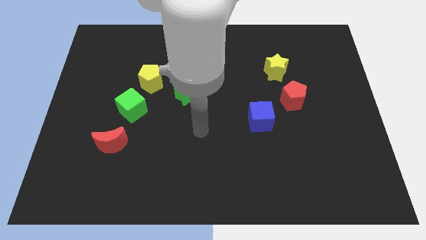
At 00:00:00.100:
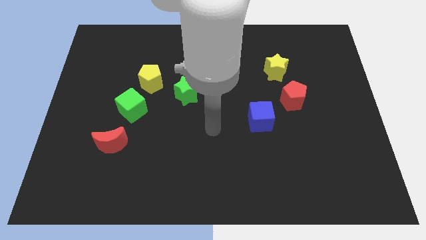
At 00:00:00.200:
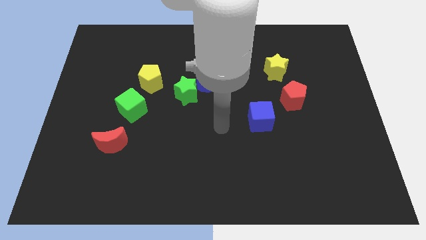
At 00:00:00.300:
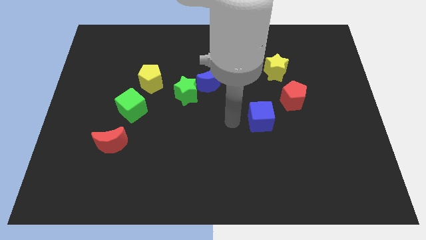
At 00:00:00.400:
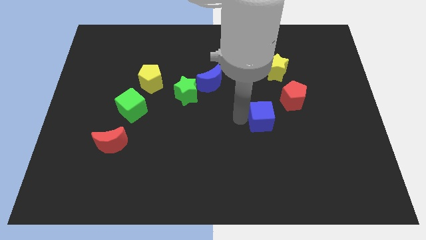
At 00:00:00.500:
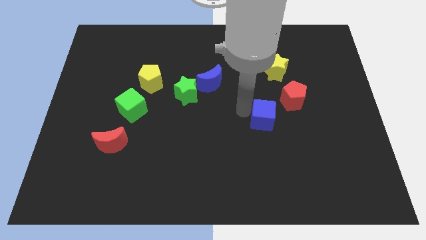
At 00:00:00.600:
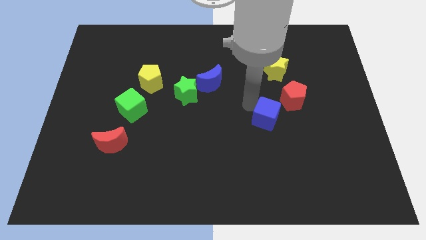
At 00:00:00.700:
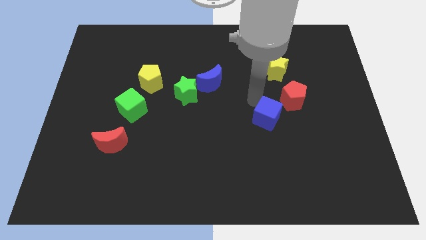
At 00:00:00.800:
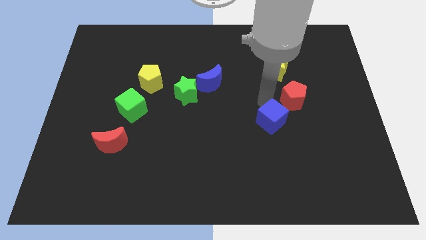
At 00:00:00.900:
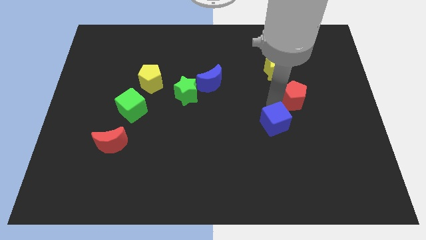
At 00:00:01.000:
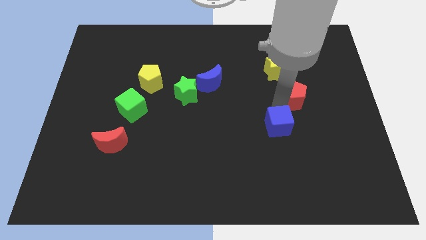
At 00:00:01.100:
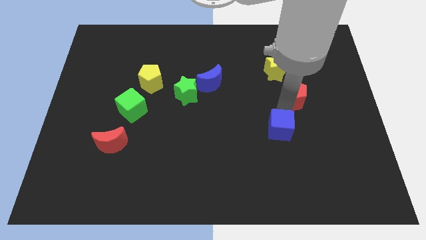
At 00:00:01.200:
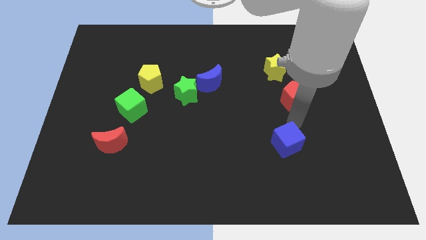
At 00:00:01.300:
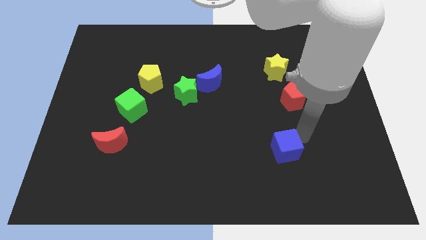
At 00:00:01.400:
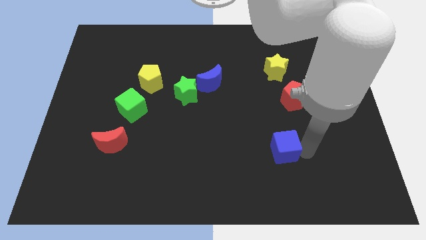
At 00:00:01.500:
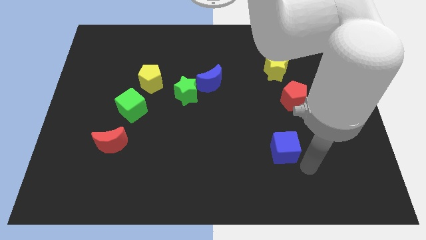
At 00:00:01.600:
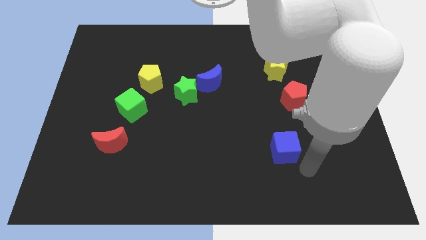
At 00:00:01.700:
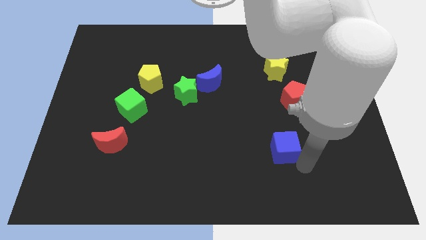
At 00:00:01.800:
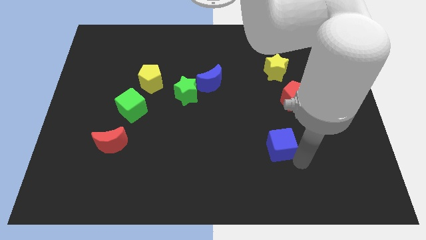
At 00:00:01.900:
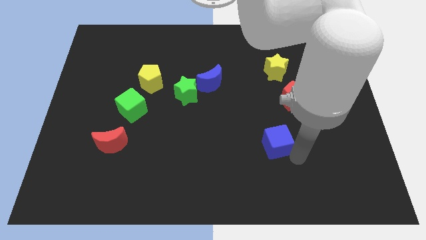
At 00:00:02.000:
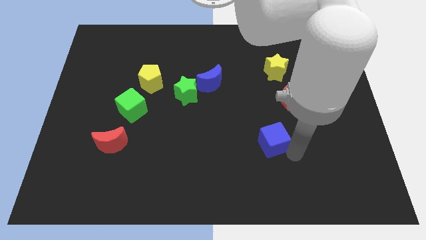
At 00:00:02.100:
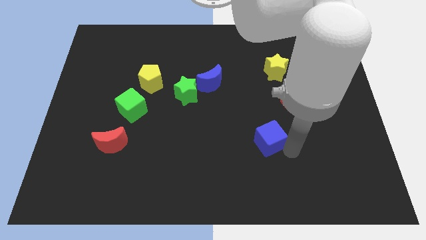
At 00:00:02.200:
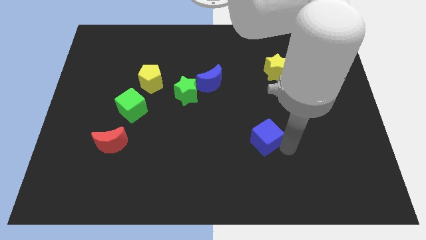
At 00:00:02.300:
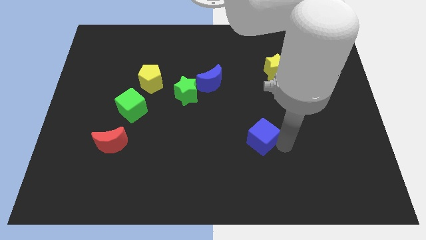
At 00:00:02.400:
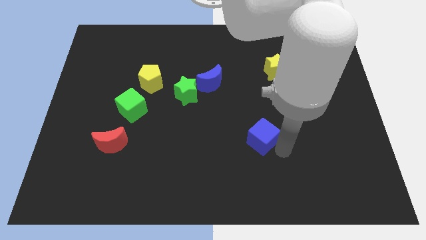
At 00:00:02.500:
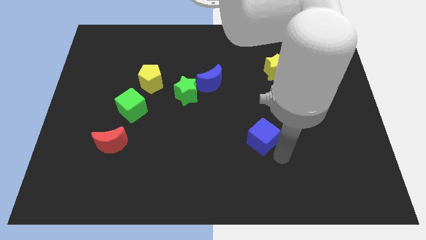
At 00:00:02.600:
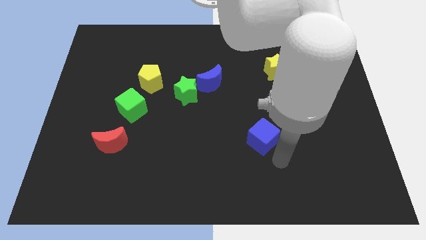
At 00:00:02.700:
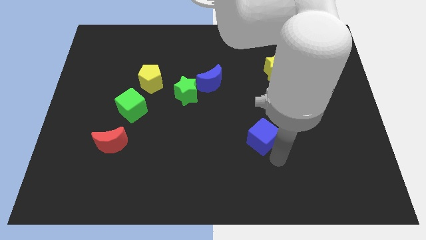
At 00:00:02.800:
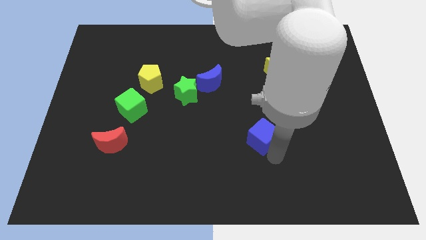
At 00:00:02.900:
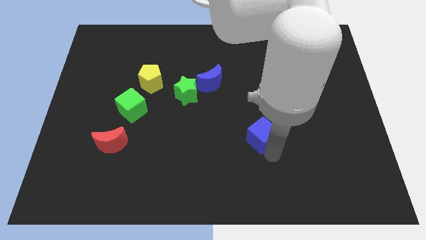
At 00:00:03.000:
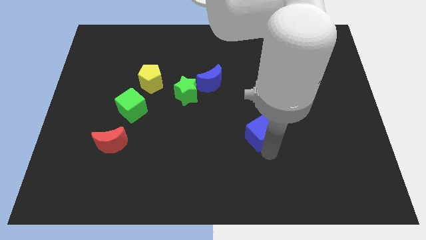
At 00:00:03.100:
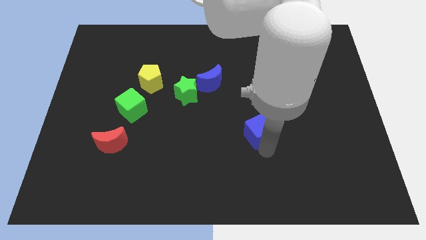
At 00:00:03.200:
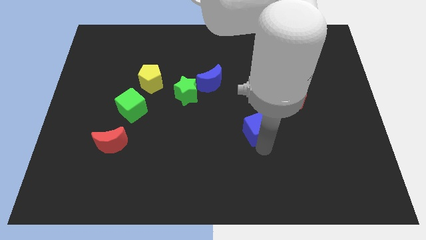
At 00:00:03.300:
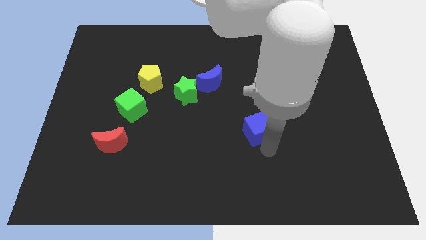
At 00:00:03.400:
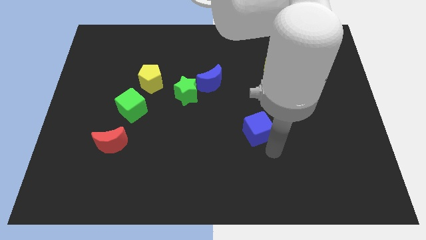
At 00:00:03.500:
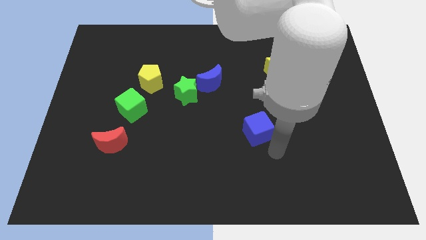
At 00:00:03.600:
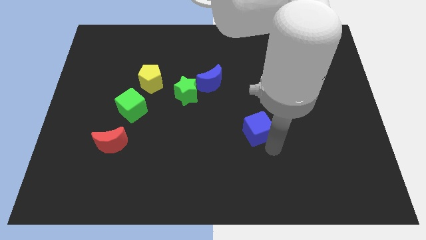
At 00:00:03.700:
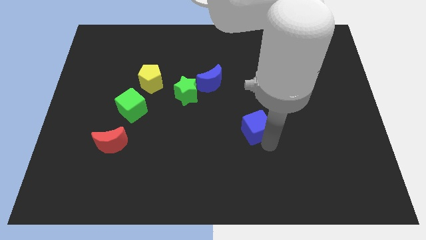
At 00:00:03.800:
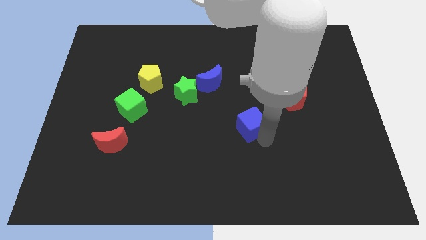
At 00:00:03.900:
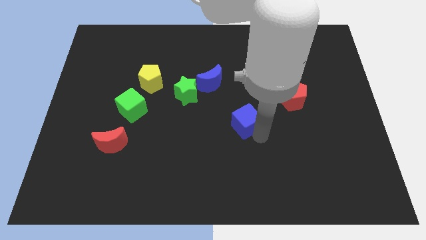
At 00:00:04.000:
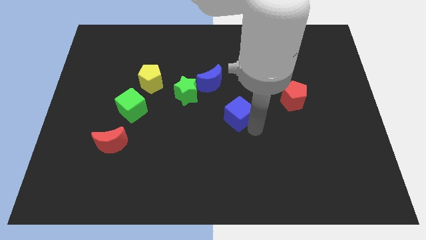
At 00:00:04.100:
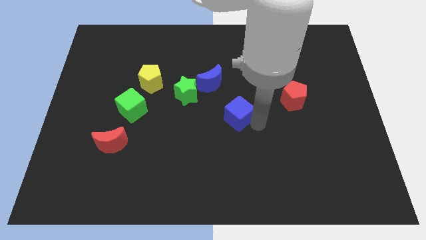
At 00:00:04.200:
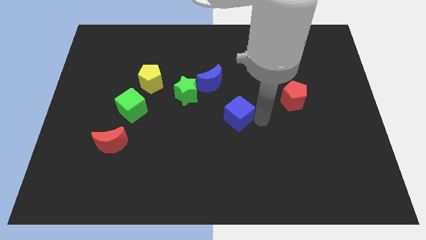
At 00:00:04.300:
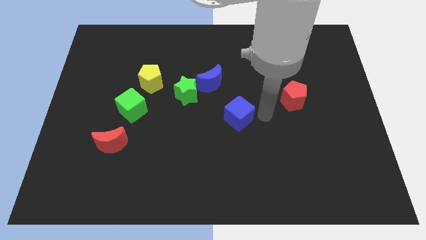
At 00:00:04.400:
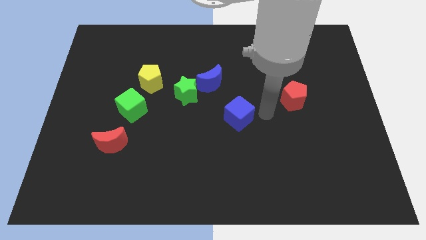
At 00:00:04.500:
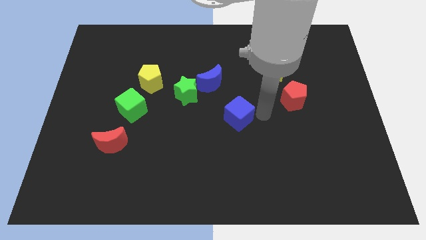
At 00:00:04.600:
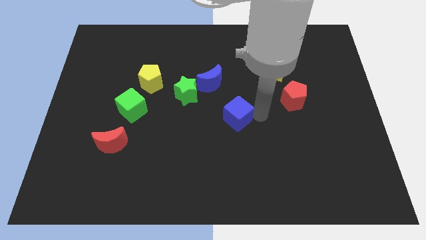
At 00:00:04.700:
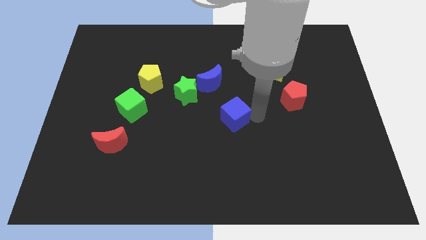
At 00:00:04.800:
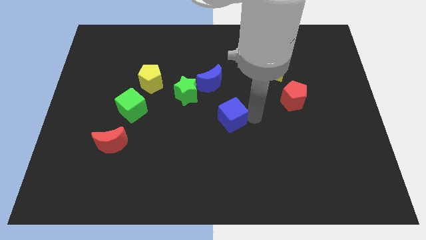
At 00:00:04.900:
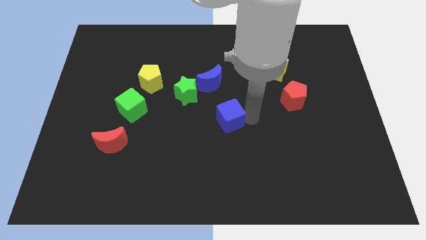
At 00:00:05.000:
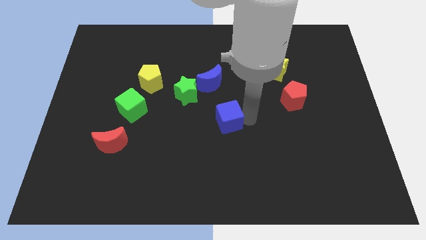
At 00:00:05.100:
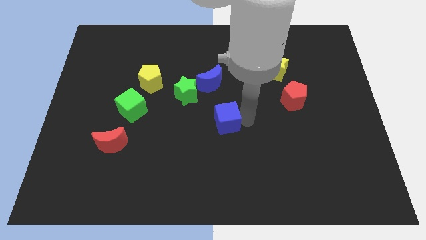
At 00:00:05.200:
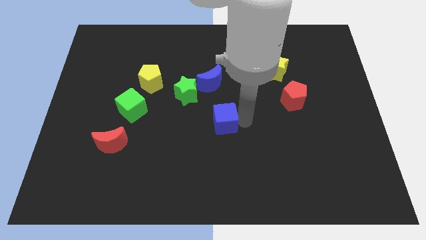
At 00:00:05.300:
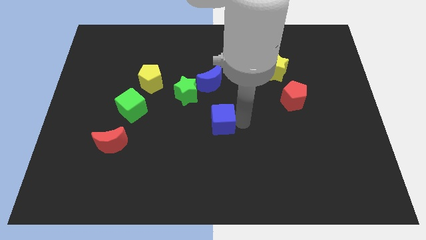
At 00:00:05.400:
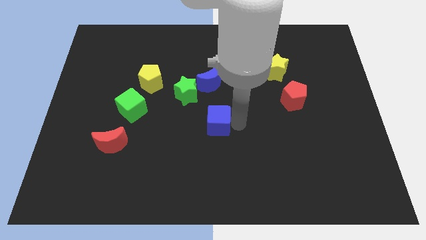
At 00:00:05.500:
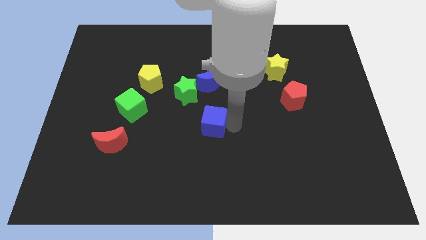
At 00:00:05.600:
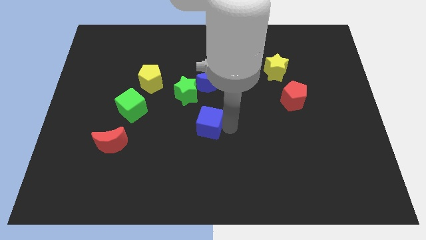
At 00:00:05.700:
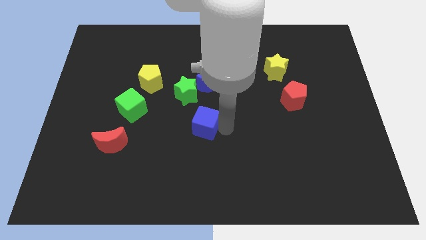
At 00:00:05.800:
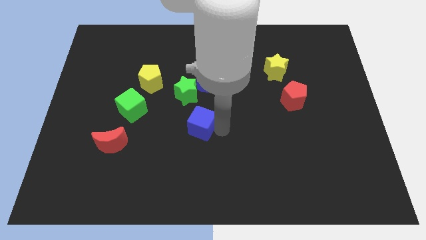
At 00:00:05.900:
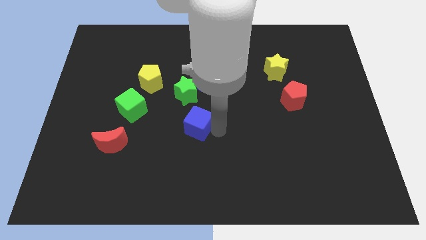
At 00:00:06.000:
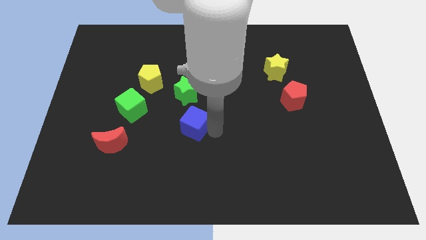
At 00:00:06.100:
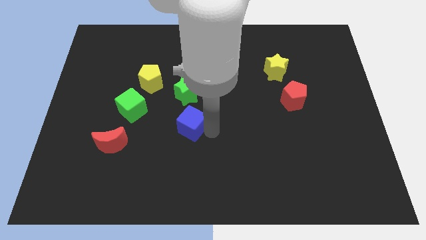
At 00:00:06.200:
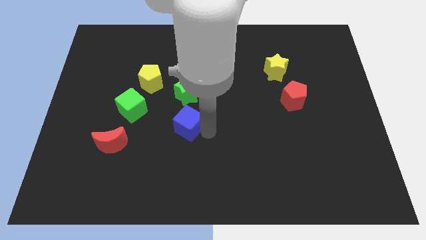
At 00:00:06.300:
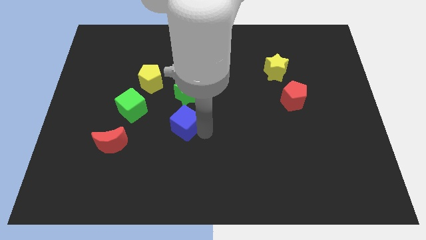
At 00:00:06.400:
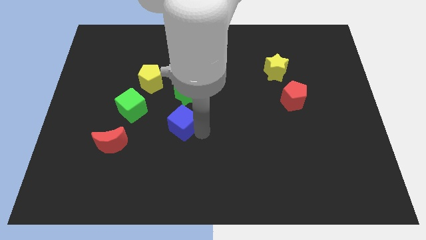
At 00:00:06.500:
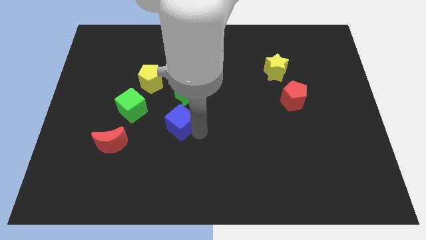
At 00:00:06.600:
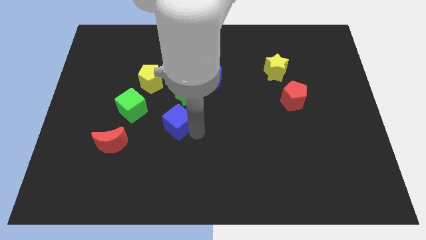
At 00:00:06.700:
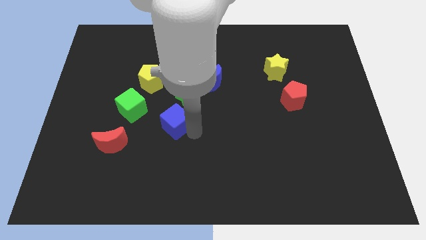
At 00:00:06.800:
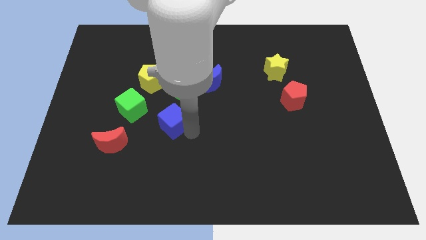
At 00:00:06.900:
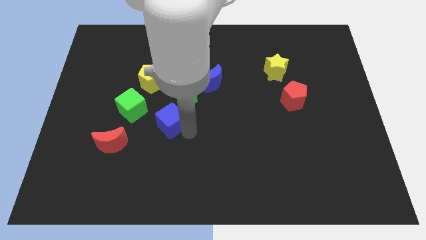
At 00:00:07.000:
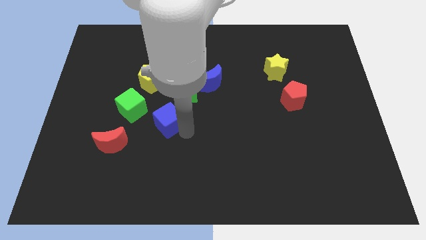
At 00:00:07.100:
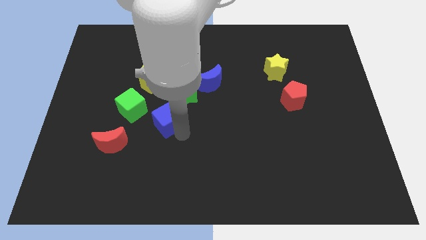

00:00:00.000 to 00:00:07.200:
move the blue cube to the bottom of the yellow pentagon
